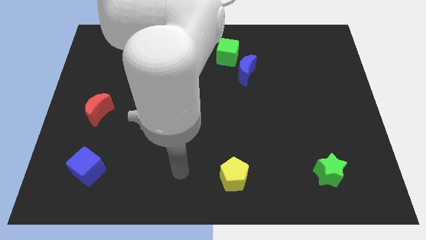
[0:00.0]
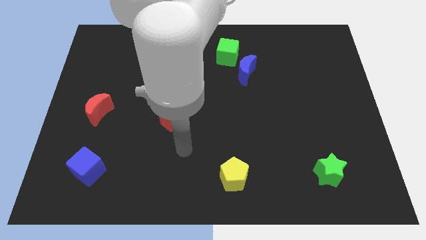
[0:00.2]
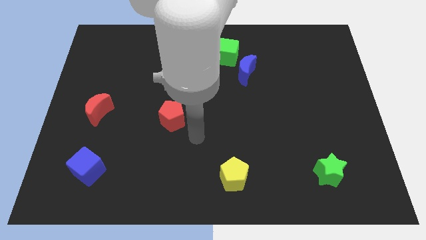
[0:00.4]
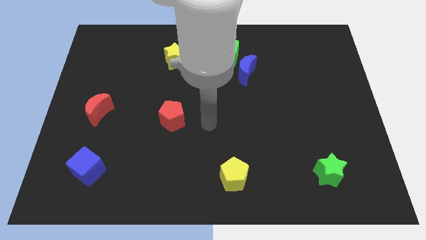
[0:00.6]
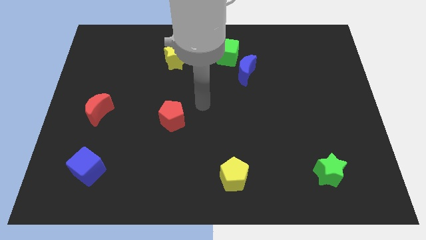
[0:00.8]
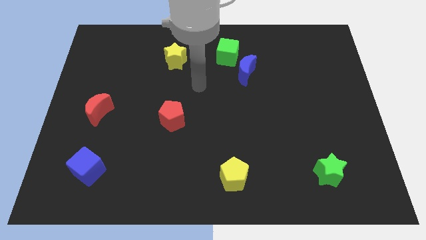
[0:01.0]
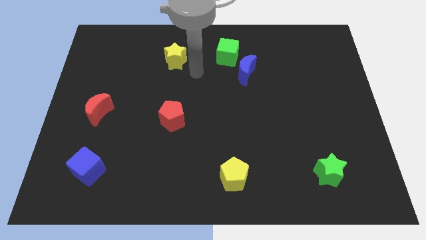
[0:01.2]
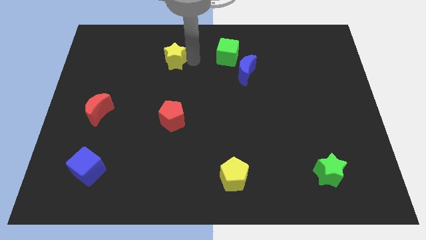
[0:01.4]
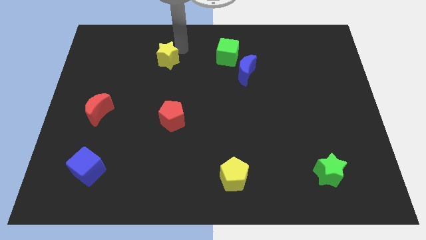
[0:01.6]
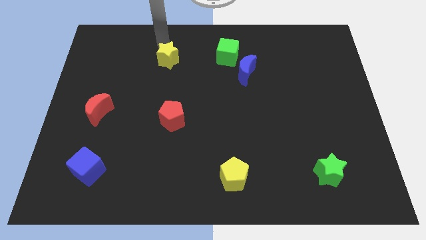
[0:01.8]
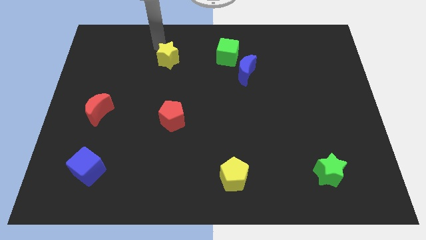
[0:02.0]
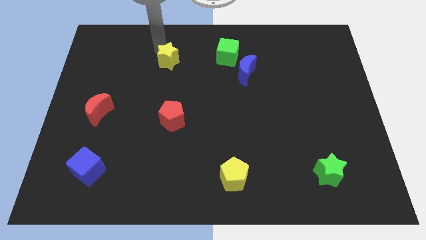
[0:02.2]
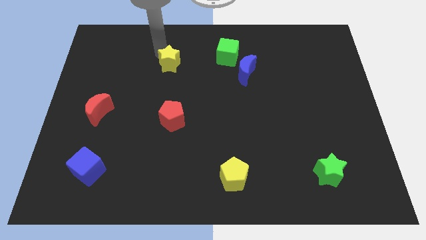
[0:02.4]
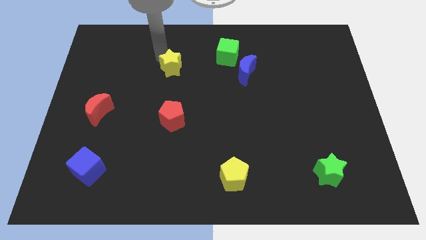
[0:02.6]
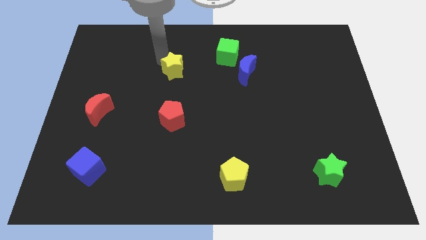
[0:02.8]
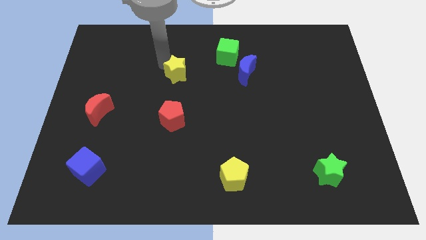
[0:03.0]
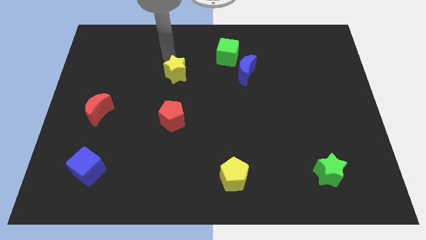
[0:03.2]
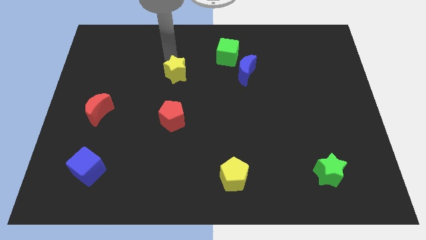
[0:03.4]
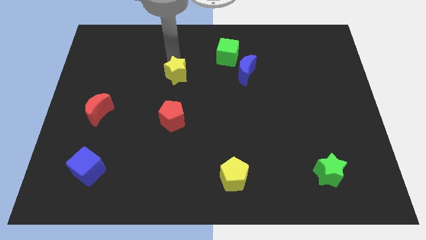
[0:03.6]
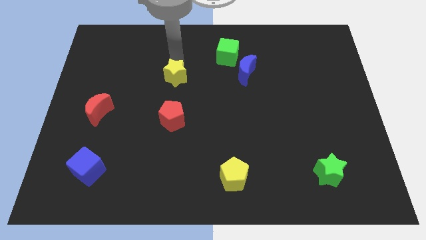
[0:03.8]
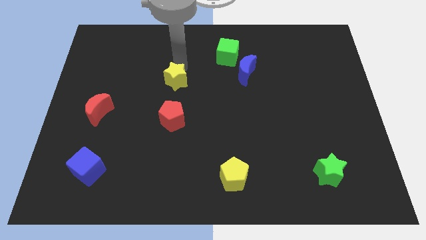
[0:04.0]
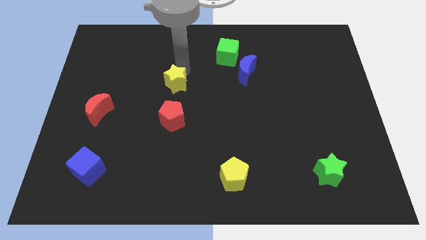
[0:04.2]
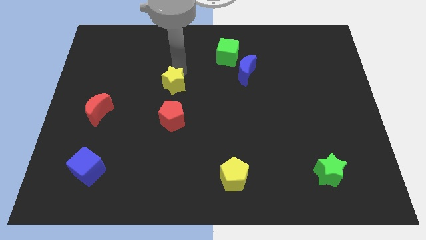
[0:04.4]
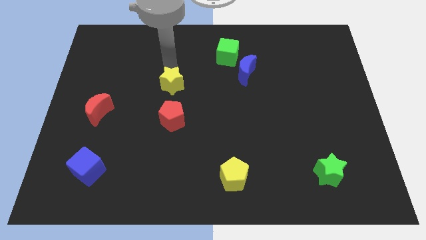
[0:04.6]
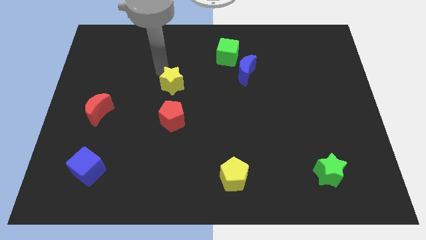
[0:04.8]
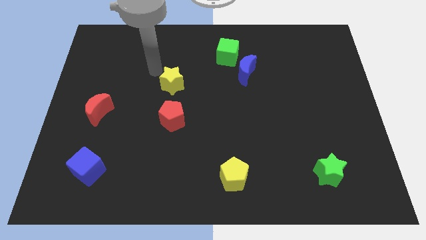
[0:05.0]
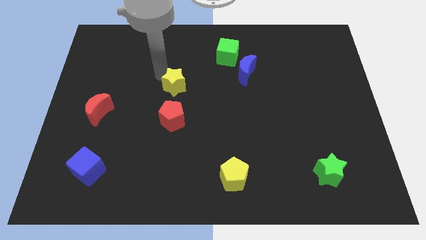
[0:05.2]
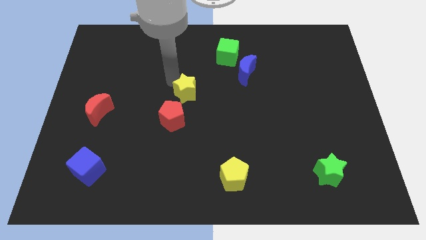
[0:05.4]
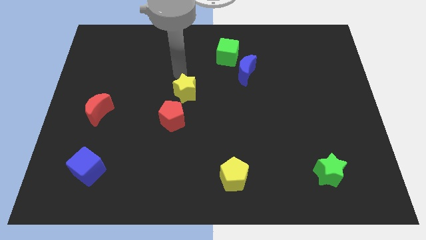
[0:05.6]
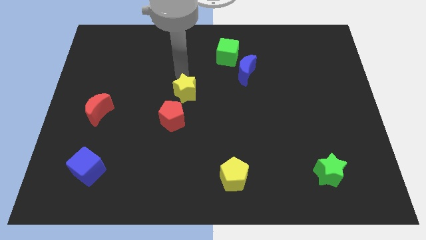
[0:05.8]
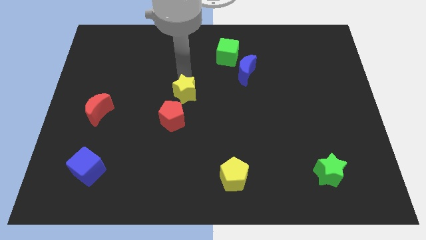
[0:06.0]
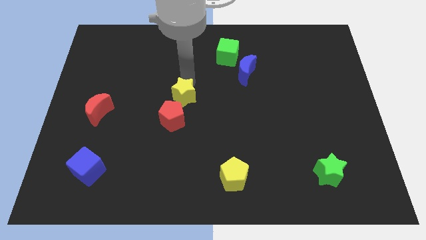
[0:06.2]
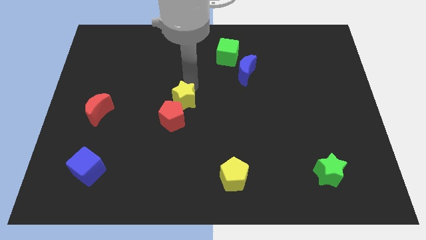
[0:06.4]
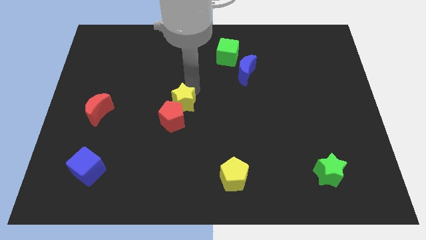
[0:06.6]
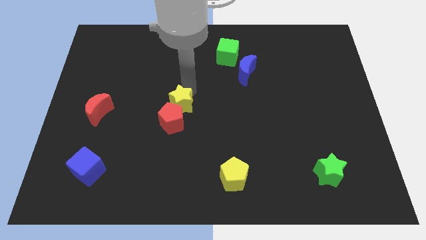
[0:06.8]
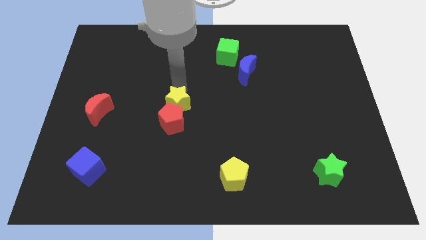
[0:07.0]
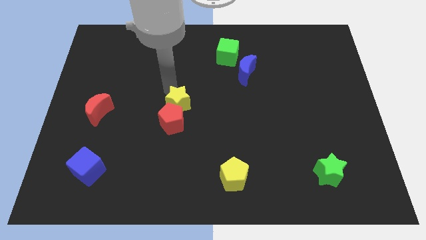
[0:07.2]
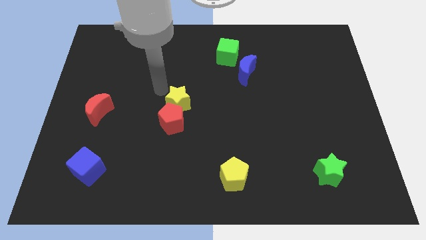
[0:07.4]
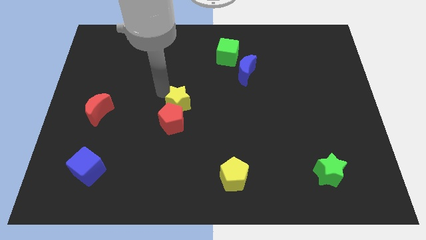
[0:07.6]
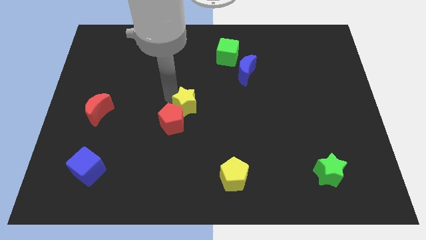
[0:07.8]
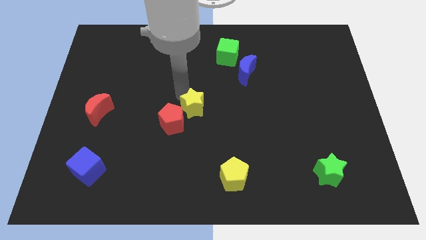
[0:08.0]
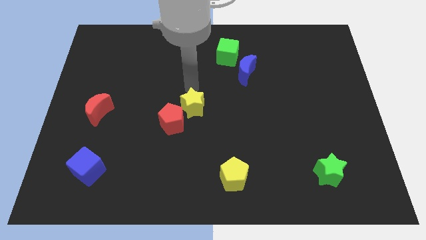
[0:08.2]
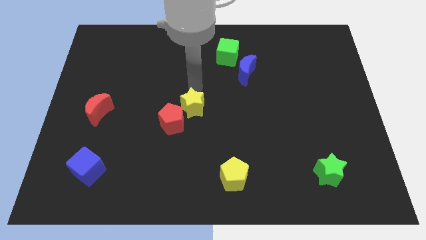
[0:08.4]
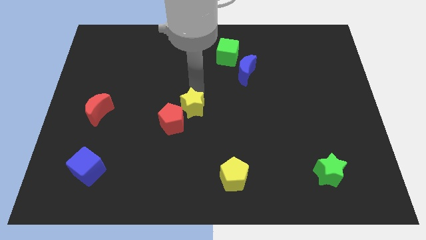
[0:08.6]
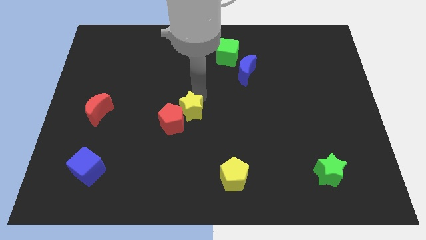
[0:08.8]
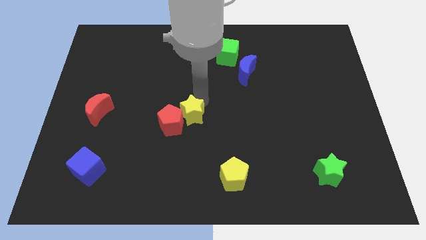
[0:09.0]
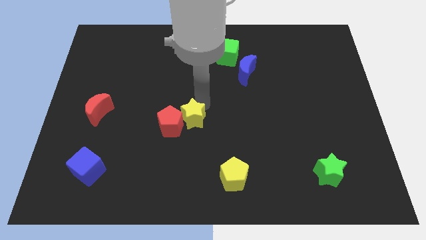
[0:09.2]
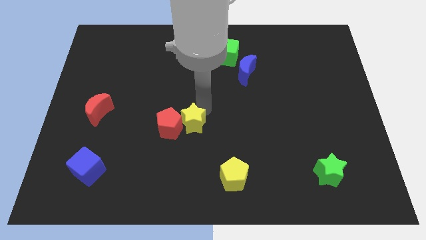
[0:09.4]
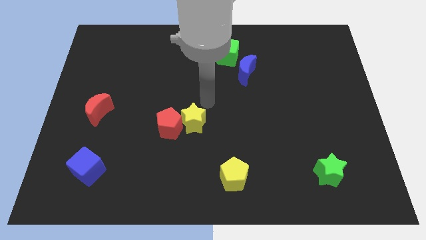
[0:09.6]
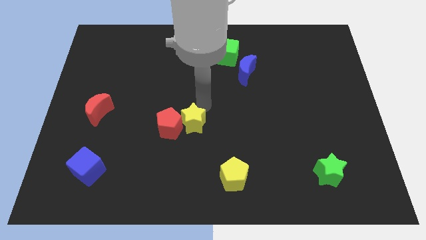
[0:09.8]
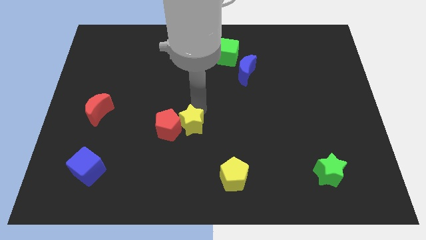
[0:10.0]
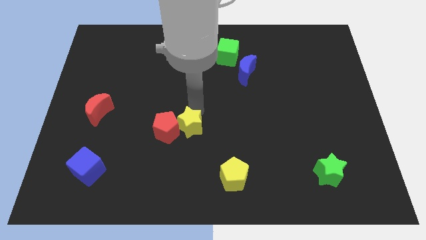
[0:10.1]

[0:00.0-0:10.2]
push the yellow star down

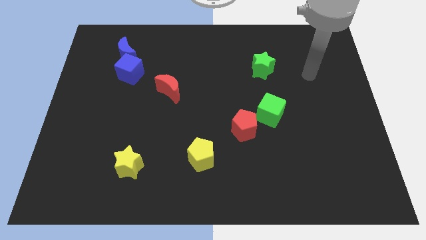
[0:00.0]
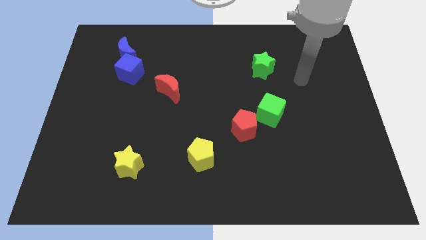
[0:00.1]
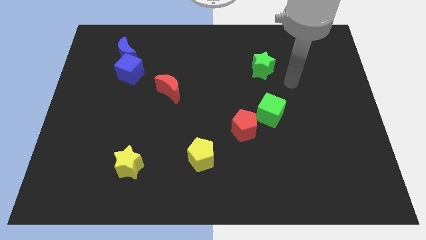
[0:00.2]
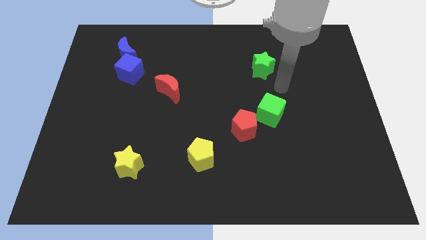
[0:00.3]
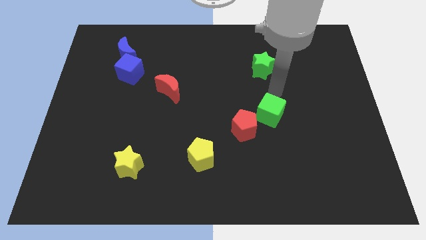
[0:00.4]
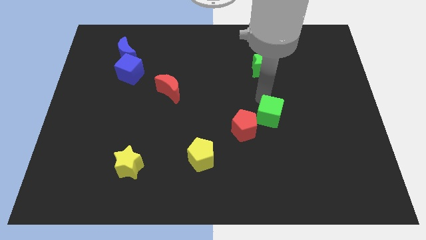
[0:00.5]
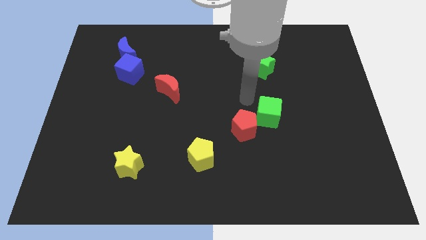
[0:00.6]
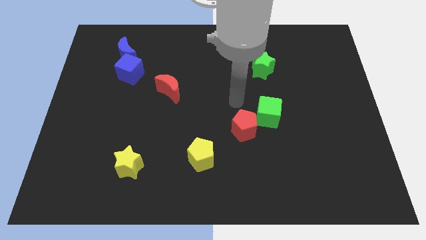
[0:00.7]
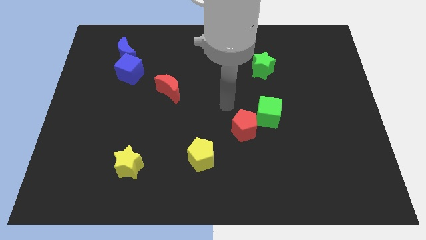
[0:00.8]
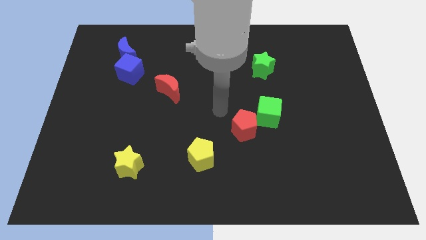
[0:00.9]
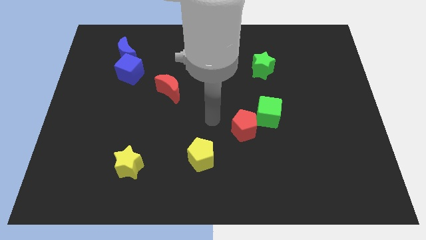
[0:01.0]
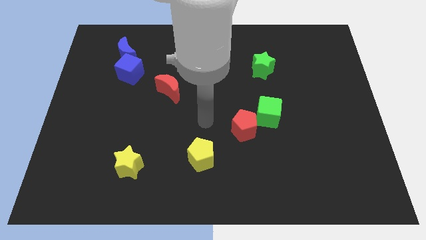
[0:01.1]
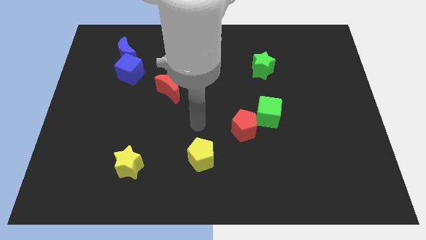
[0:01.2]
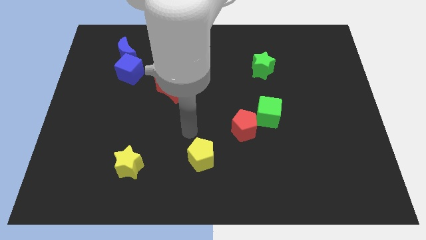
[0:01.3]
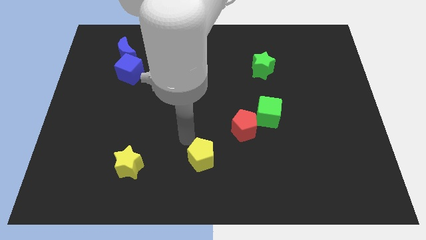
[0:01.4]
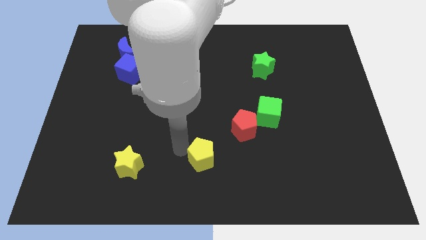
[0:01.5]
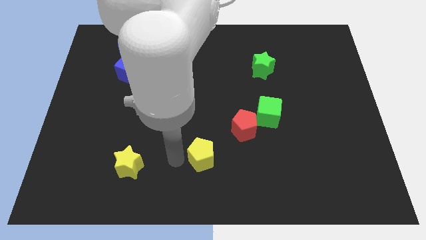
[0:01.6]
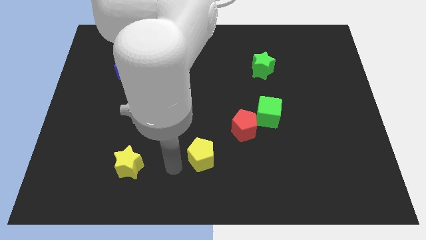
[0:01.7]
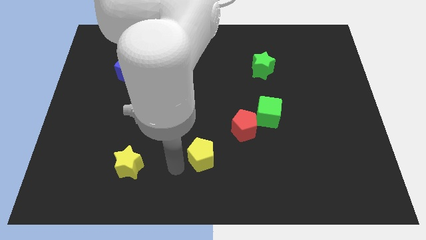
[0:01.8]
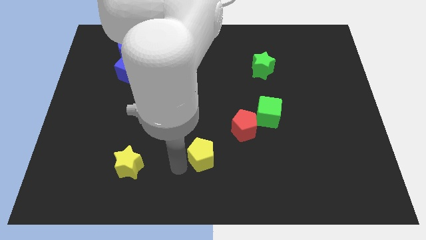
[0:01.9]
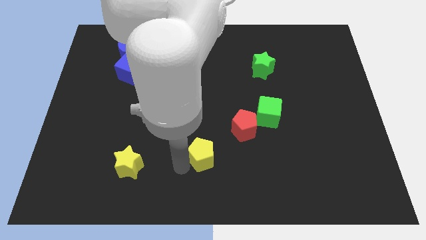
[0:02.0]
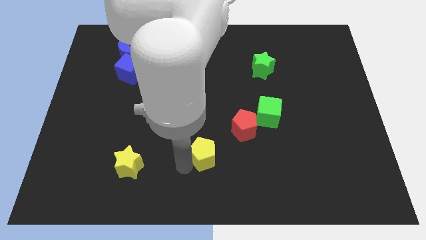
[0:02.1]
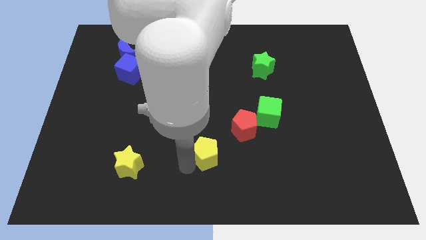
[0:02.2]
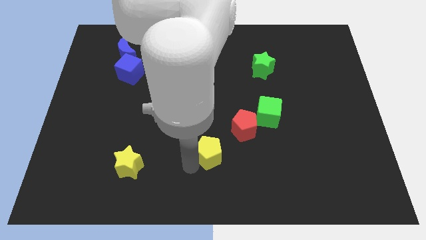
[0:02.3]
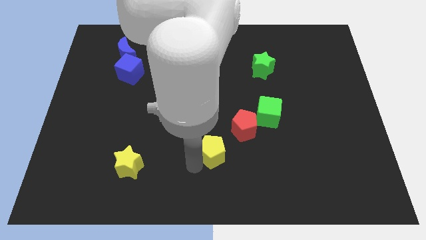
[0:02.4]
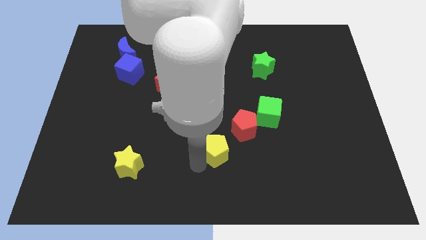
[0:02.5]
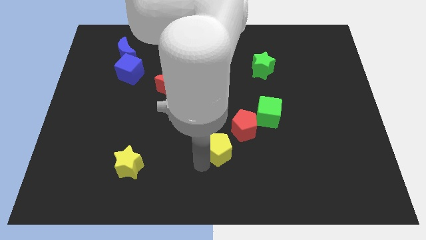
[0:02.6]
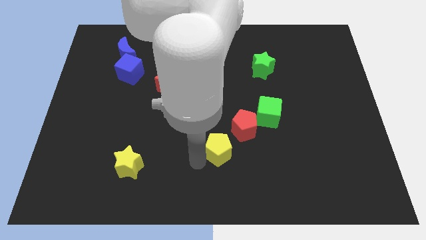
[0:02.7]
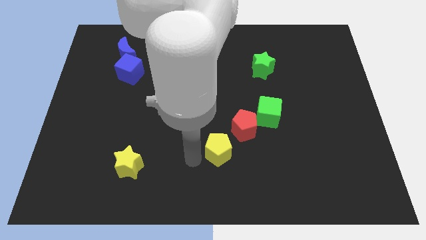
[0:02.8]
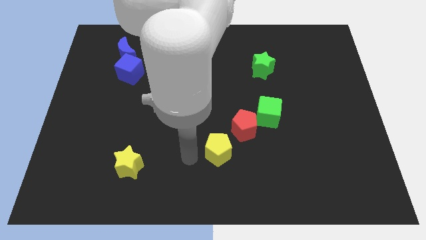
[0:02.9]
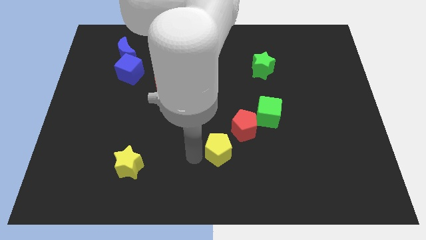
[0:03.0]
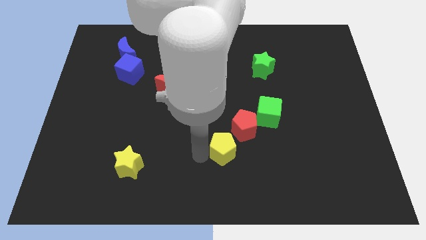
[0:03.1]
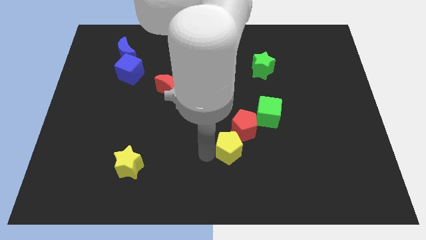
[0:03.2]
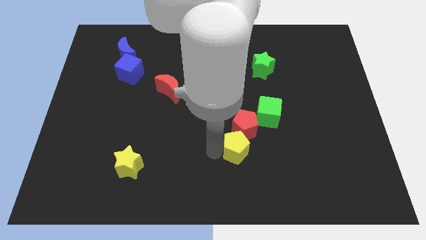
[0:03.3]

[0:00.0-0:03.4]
slide the yellow pentagon a bit to the right
